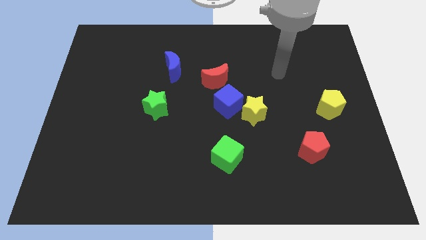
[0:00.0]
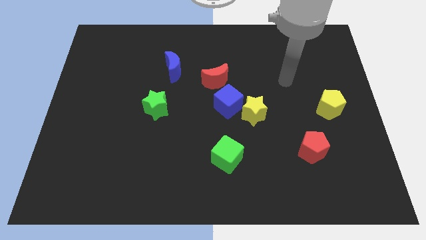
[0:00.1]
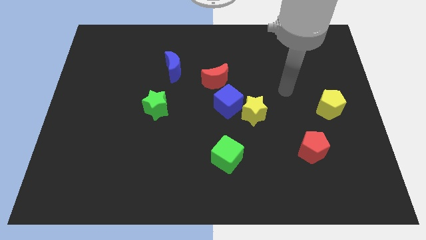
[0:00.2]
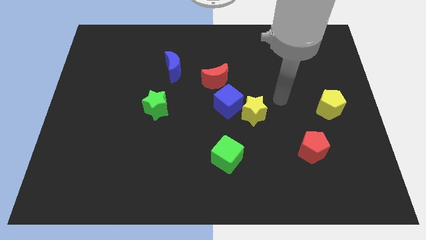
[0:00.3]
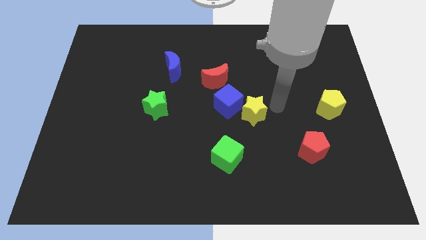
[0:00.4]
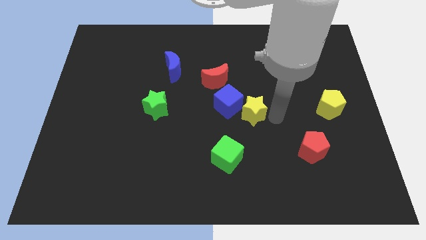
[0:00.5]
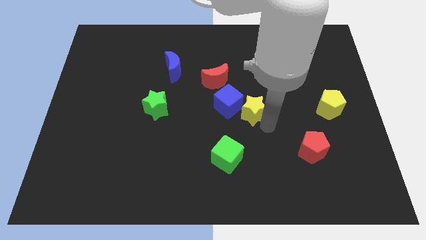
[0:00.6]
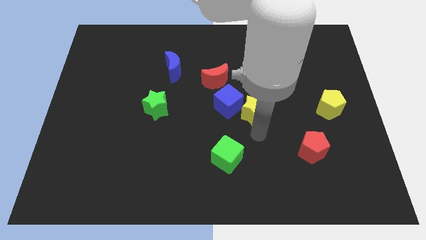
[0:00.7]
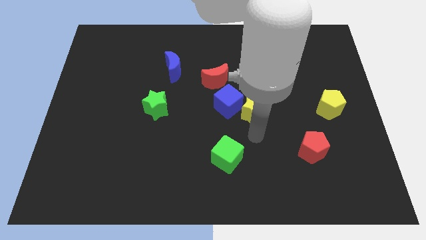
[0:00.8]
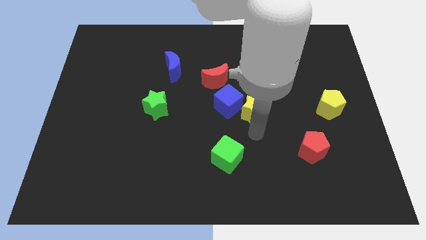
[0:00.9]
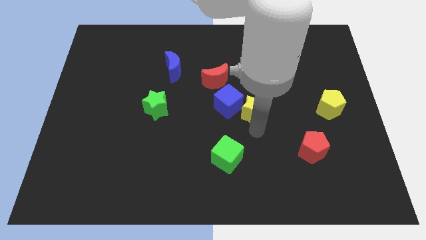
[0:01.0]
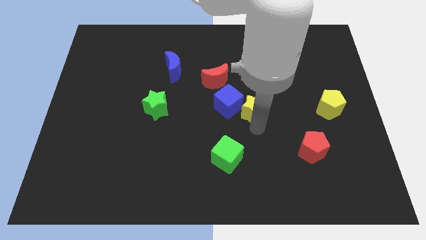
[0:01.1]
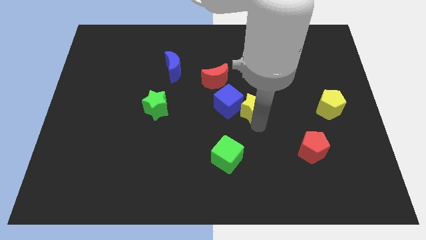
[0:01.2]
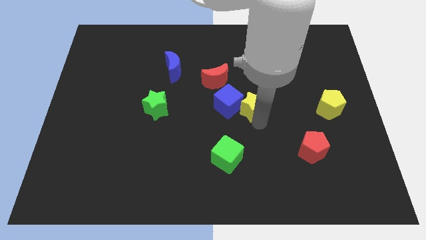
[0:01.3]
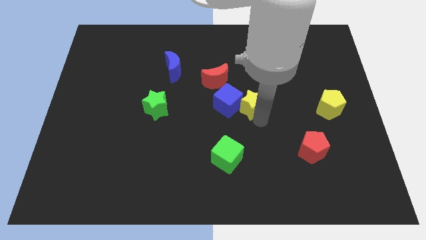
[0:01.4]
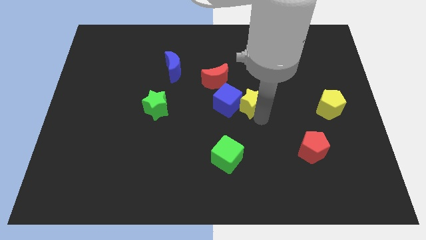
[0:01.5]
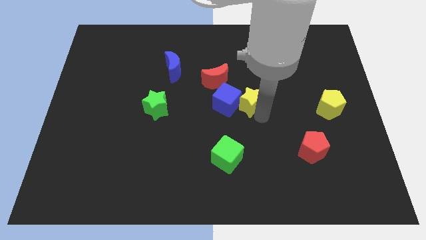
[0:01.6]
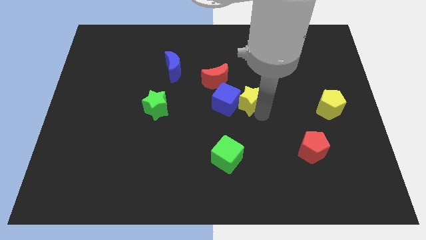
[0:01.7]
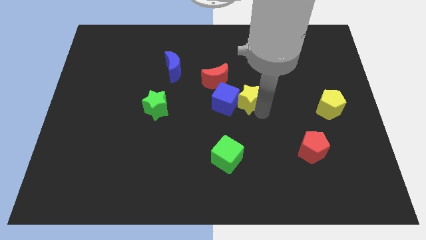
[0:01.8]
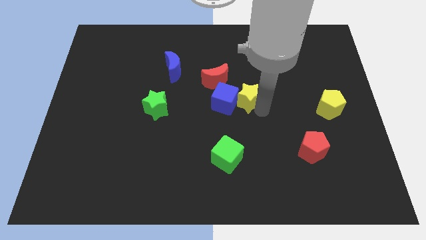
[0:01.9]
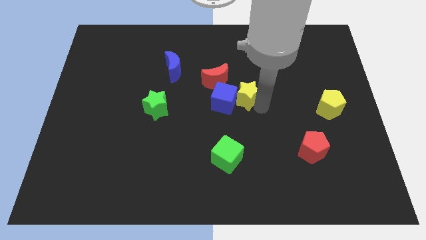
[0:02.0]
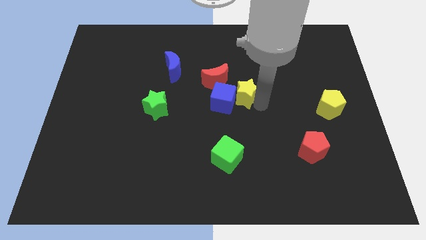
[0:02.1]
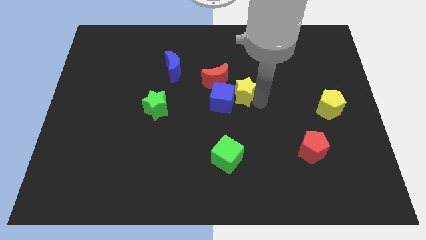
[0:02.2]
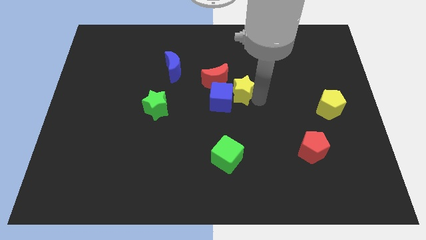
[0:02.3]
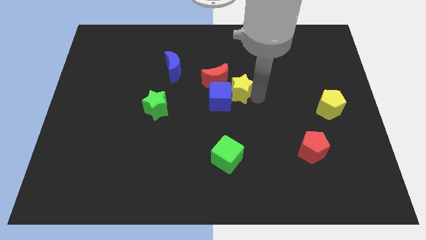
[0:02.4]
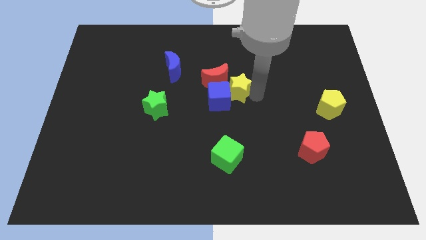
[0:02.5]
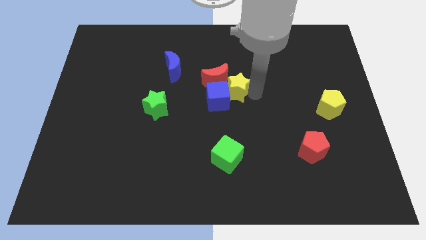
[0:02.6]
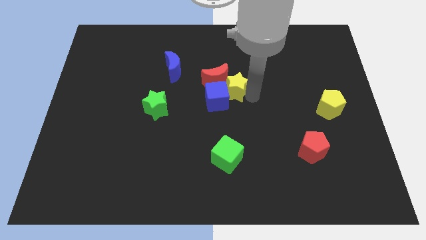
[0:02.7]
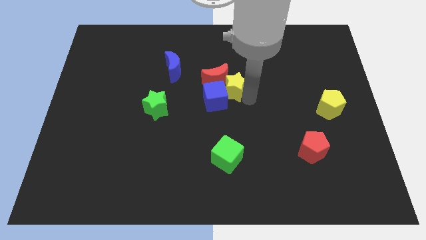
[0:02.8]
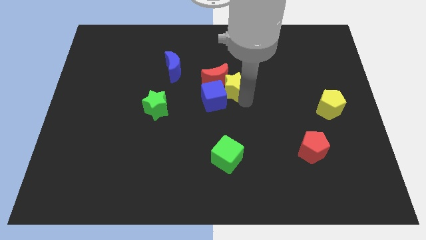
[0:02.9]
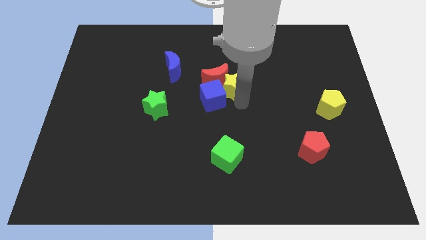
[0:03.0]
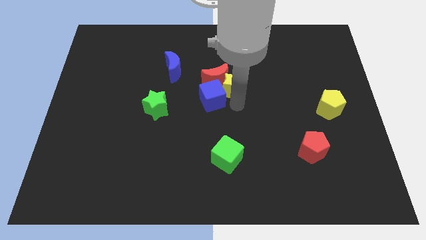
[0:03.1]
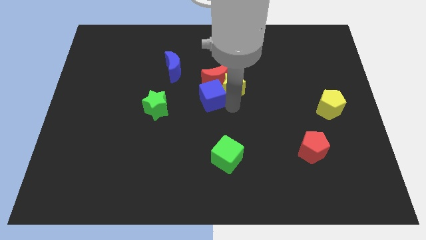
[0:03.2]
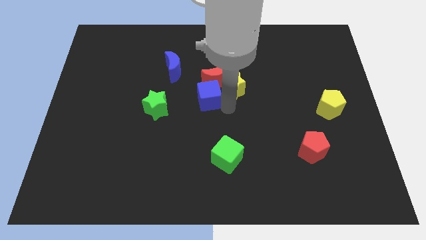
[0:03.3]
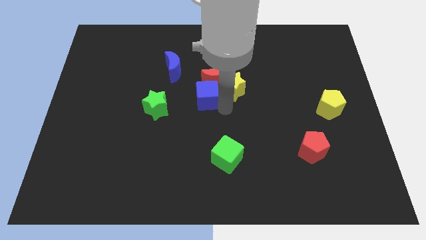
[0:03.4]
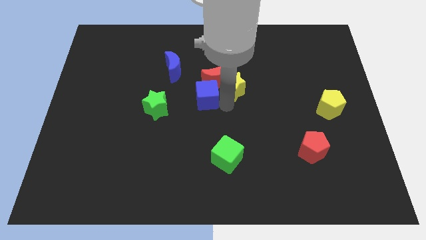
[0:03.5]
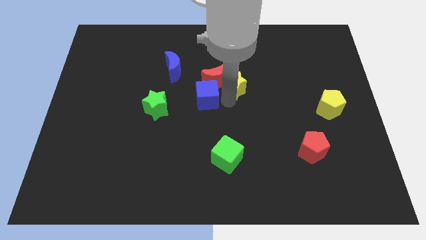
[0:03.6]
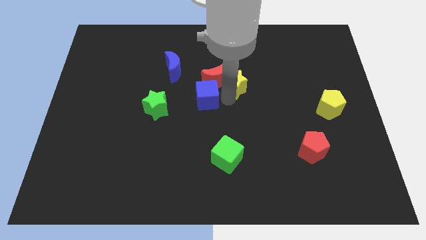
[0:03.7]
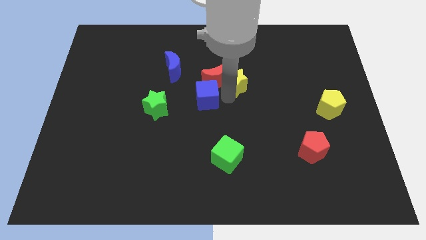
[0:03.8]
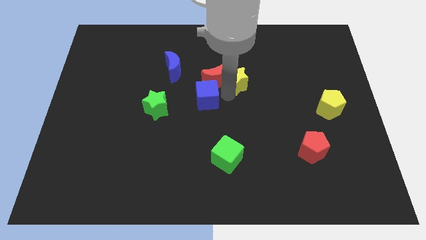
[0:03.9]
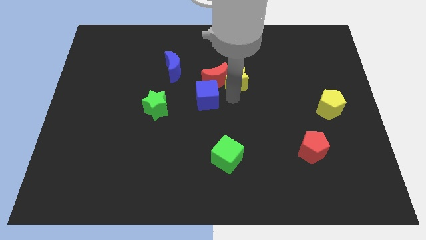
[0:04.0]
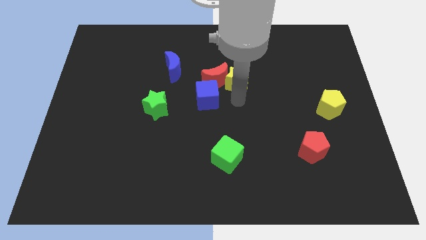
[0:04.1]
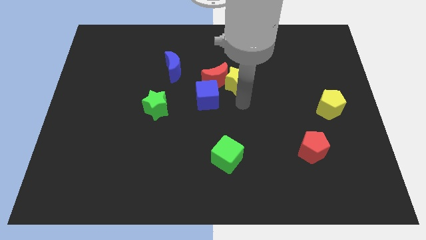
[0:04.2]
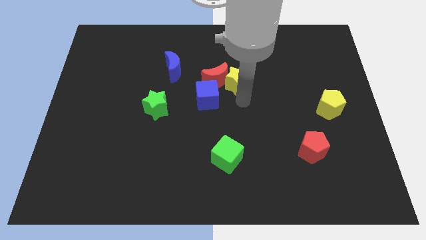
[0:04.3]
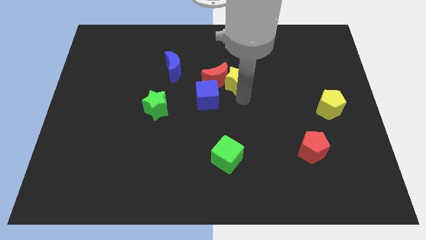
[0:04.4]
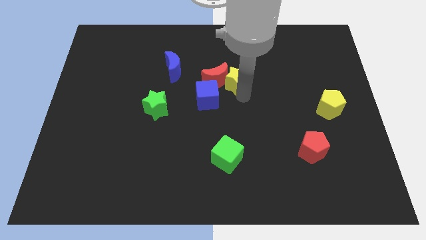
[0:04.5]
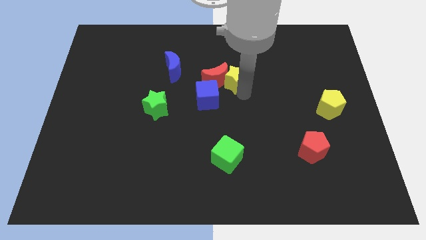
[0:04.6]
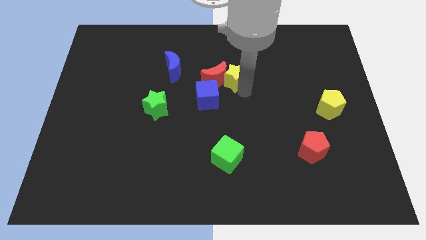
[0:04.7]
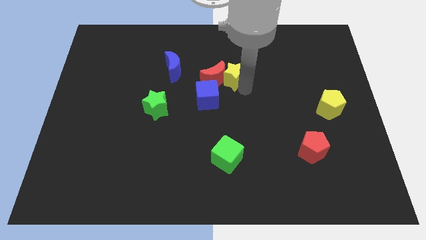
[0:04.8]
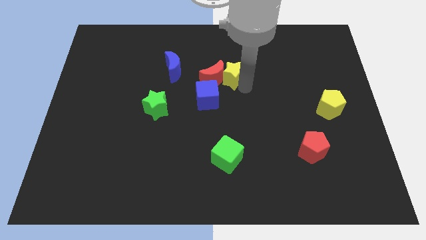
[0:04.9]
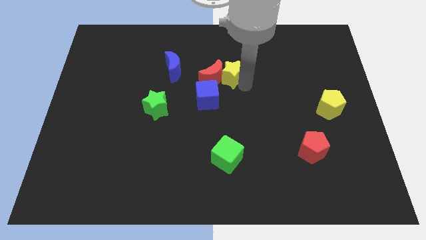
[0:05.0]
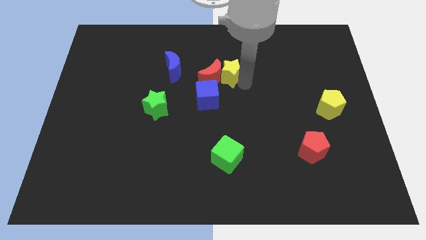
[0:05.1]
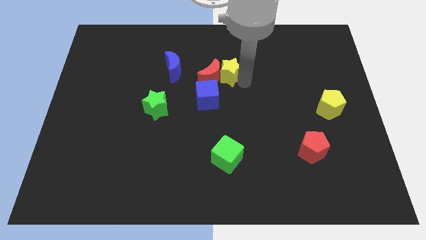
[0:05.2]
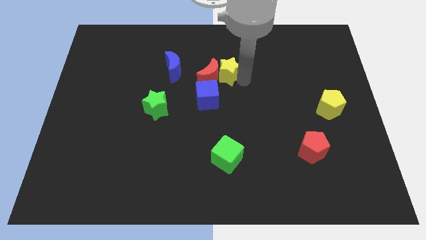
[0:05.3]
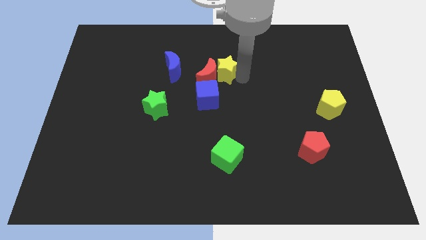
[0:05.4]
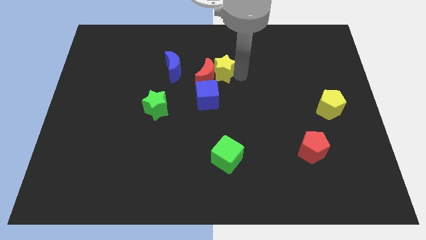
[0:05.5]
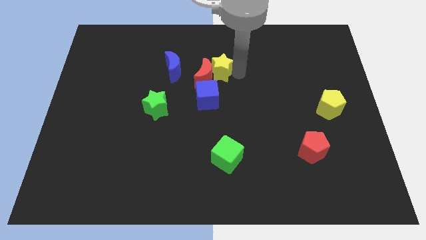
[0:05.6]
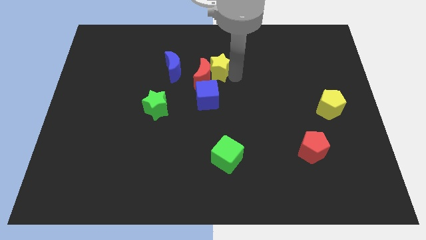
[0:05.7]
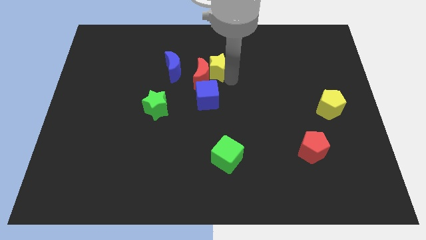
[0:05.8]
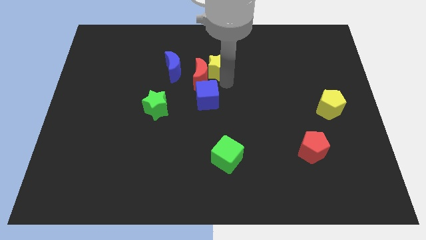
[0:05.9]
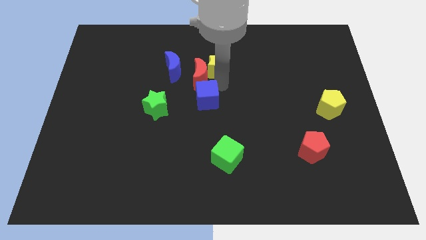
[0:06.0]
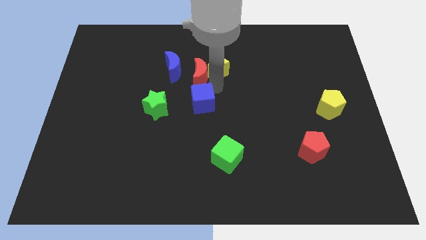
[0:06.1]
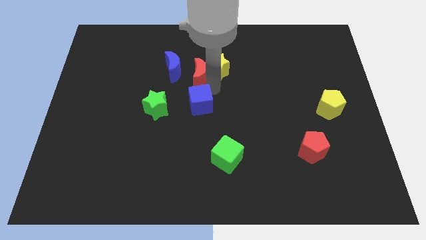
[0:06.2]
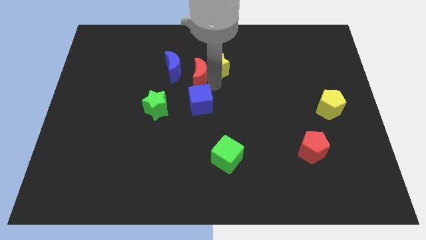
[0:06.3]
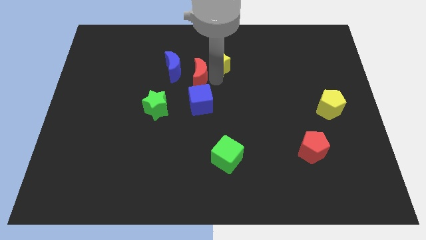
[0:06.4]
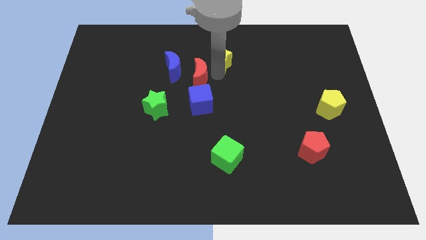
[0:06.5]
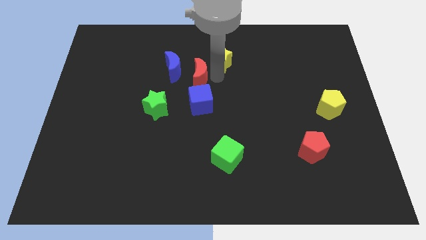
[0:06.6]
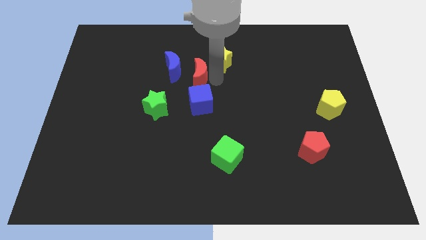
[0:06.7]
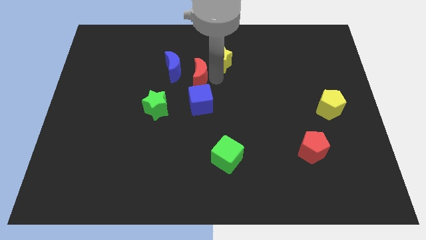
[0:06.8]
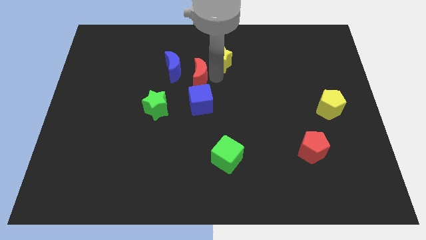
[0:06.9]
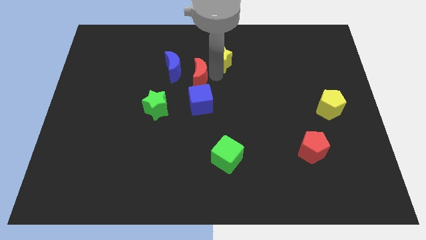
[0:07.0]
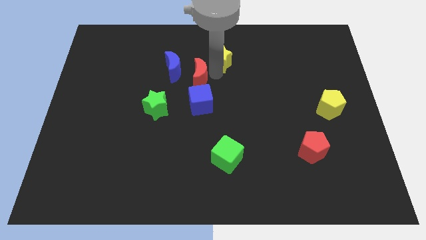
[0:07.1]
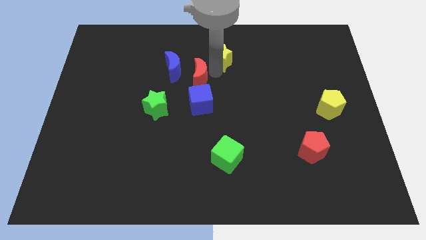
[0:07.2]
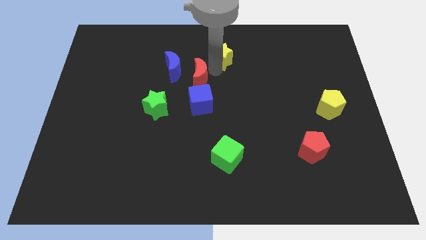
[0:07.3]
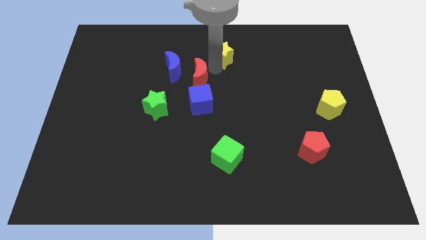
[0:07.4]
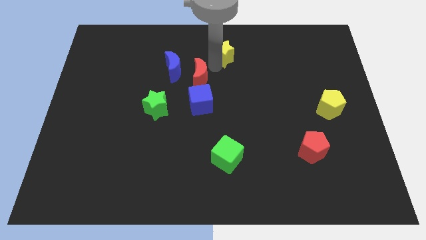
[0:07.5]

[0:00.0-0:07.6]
push the yellow star to the towards your base
